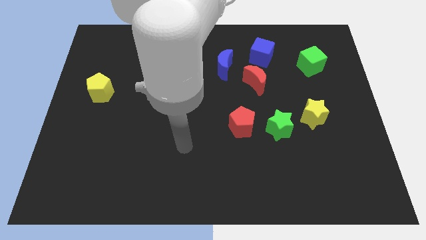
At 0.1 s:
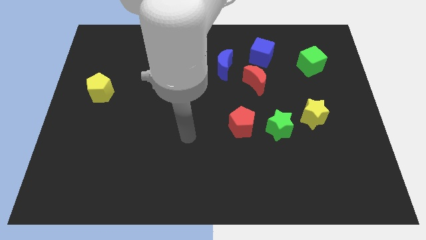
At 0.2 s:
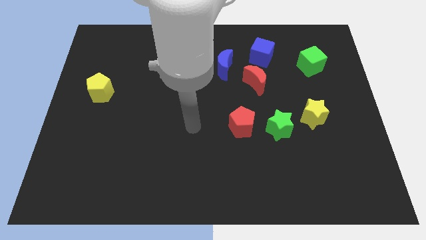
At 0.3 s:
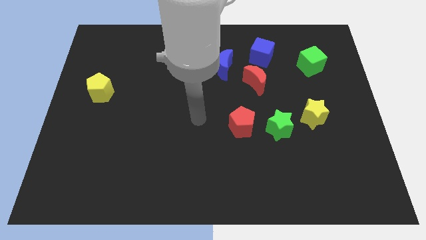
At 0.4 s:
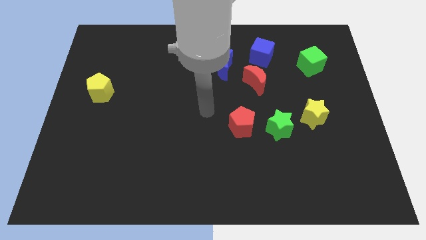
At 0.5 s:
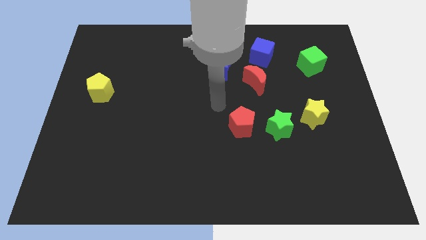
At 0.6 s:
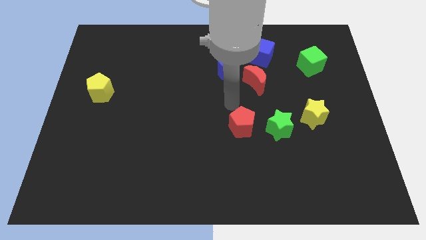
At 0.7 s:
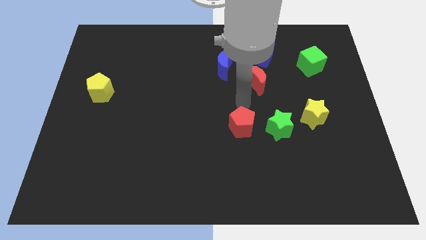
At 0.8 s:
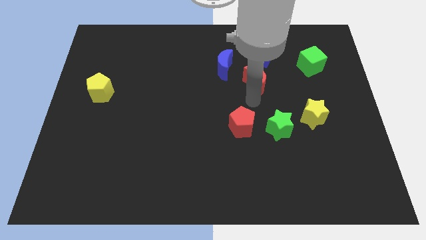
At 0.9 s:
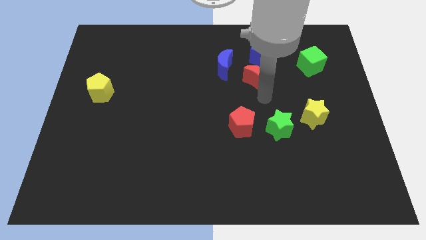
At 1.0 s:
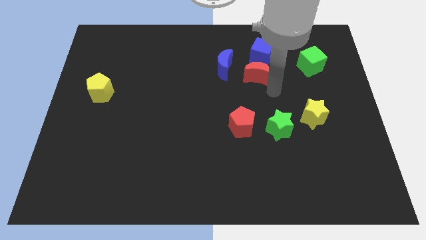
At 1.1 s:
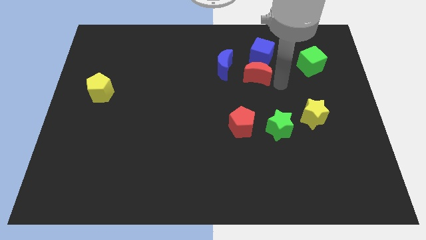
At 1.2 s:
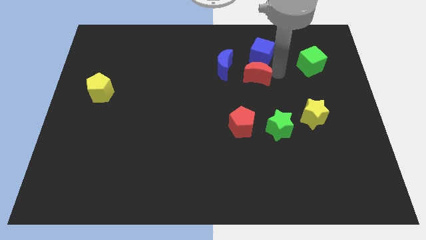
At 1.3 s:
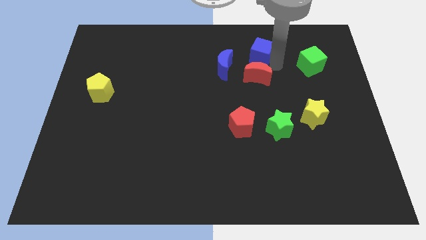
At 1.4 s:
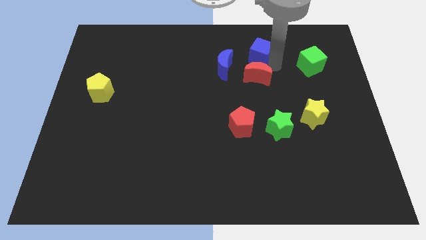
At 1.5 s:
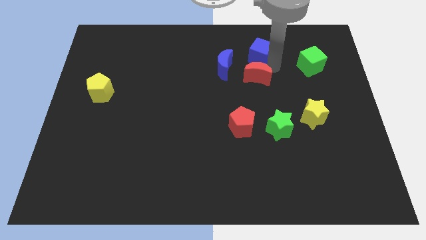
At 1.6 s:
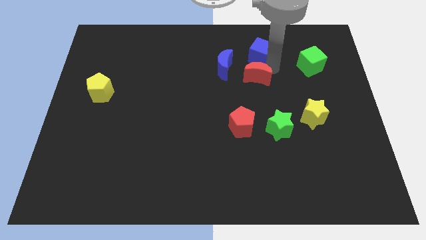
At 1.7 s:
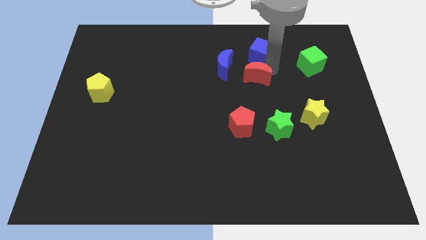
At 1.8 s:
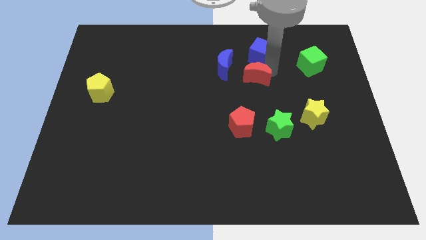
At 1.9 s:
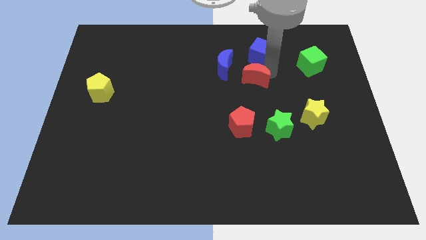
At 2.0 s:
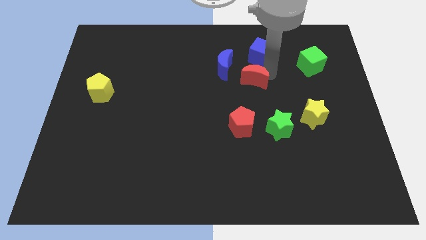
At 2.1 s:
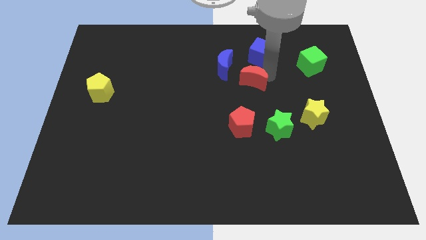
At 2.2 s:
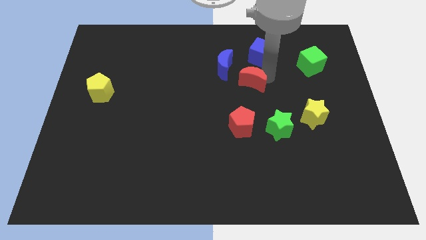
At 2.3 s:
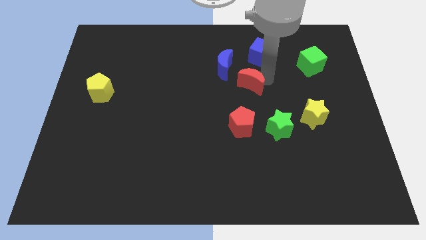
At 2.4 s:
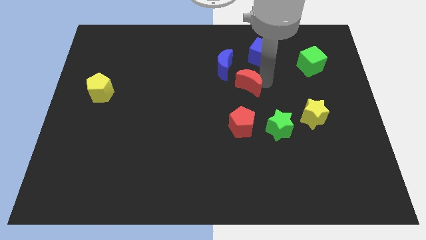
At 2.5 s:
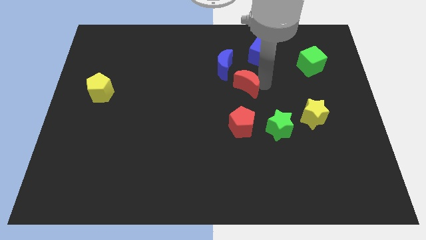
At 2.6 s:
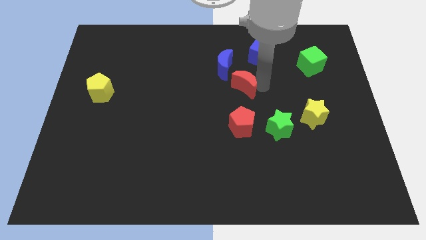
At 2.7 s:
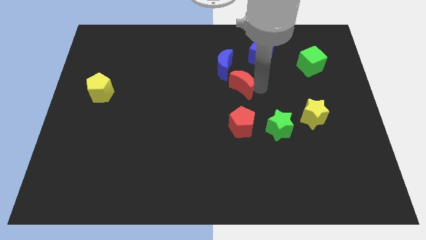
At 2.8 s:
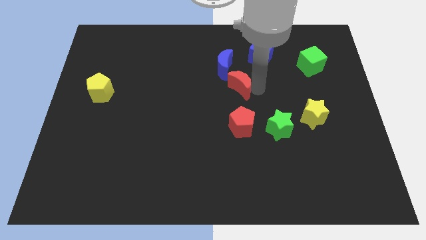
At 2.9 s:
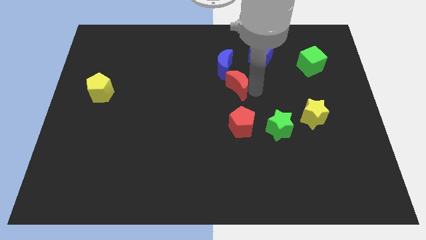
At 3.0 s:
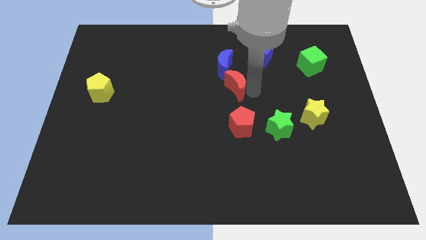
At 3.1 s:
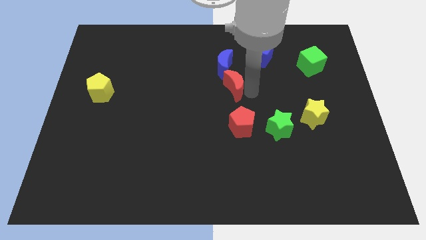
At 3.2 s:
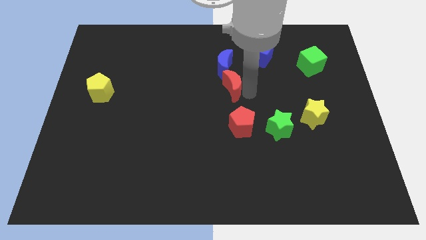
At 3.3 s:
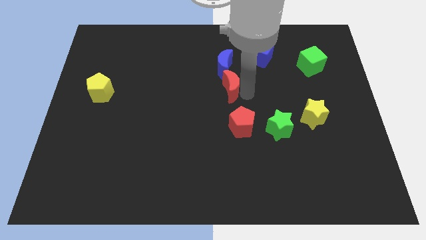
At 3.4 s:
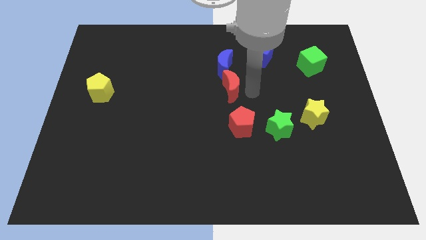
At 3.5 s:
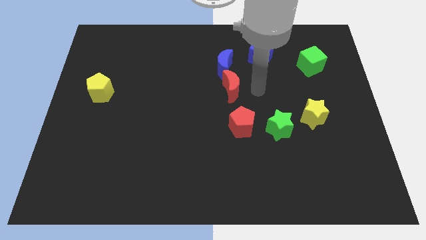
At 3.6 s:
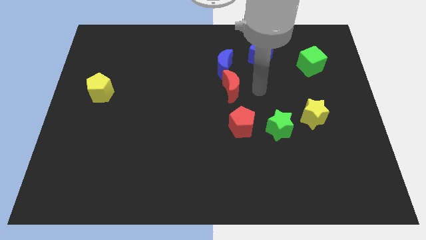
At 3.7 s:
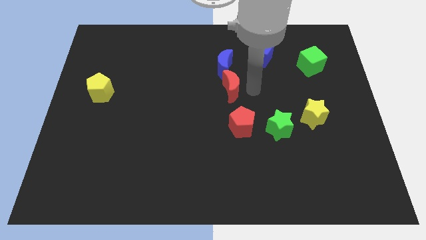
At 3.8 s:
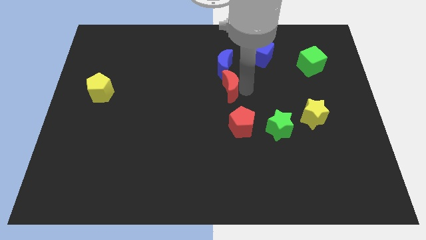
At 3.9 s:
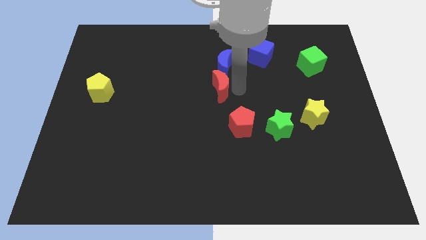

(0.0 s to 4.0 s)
slightly move the red moon left

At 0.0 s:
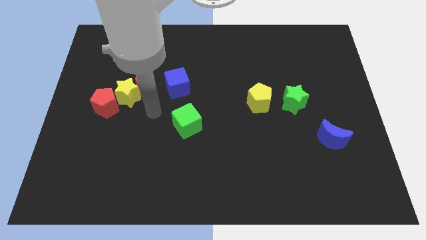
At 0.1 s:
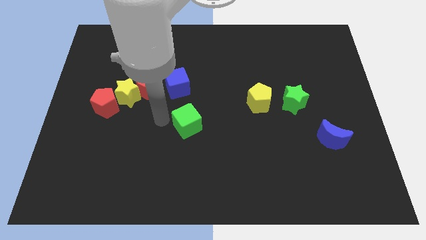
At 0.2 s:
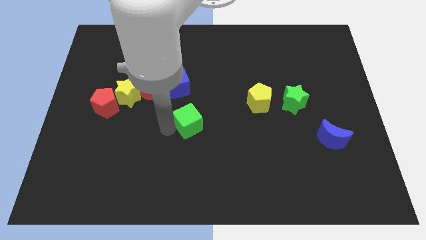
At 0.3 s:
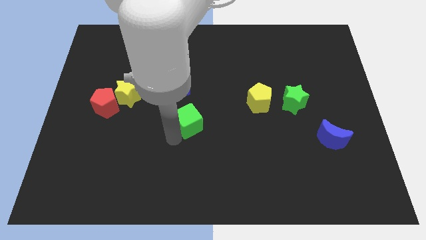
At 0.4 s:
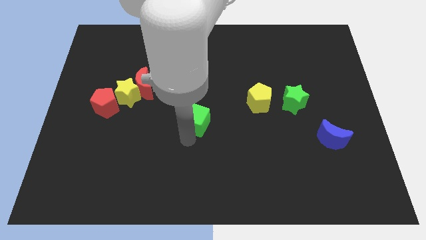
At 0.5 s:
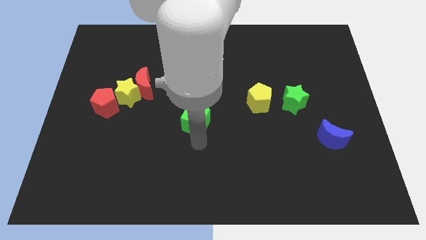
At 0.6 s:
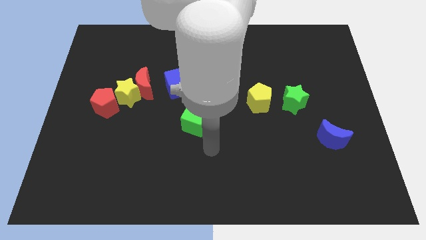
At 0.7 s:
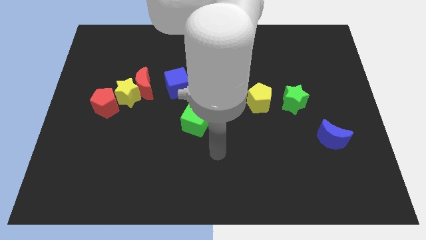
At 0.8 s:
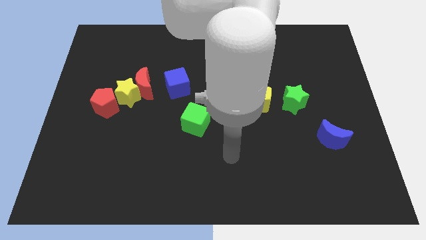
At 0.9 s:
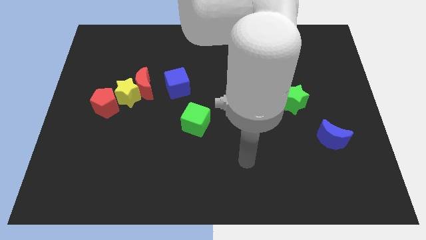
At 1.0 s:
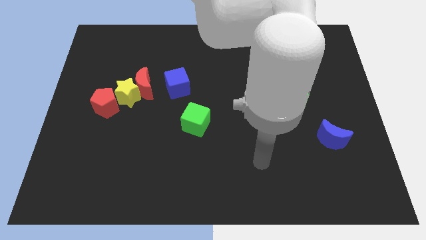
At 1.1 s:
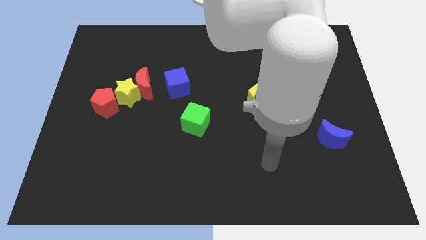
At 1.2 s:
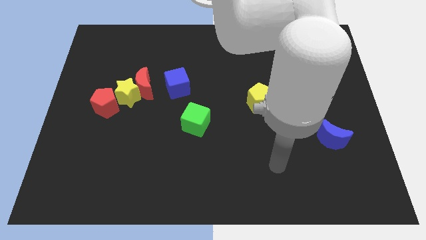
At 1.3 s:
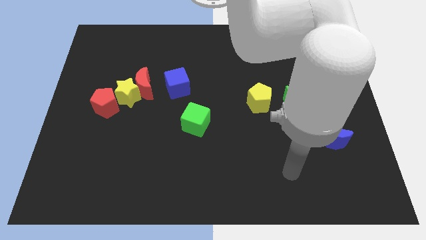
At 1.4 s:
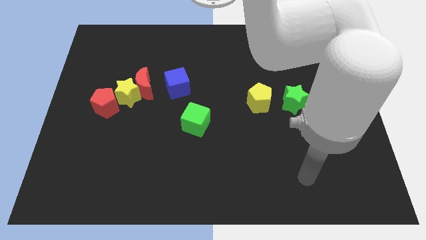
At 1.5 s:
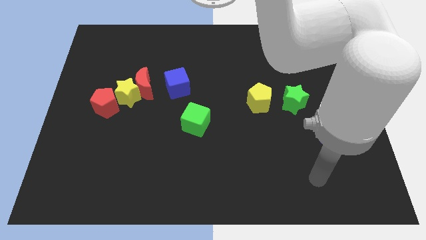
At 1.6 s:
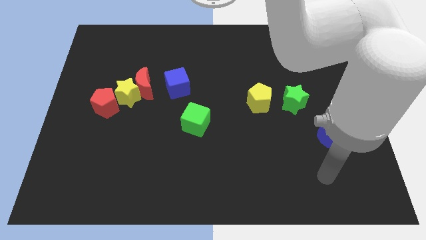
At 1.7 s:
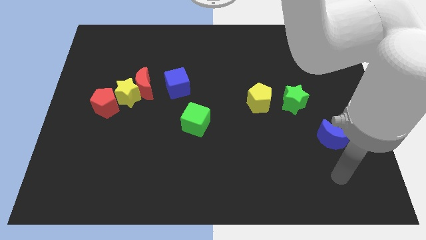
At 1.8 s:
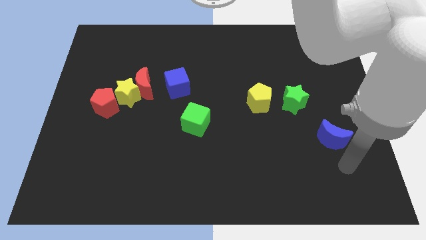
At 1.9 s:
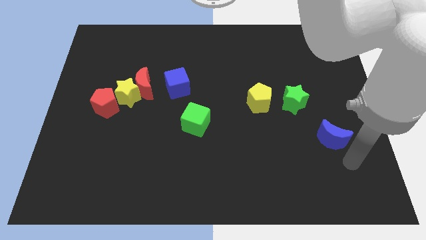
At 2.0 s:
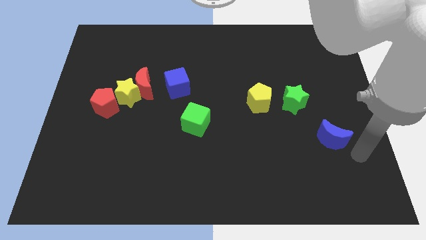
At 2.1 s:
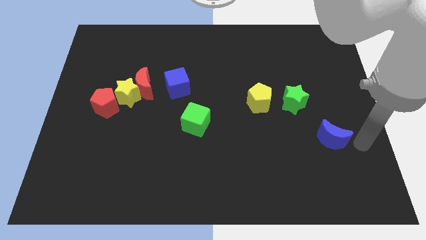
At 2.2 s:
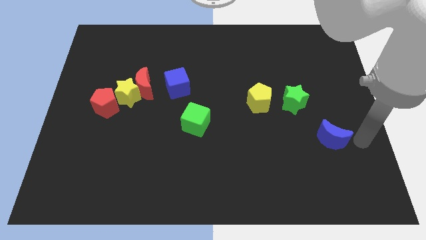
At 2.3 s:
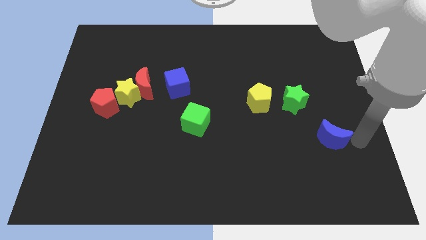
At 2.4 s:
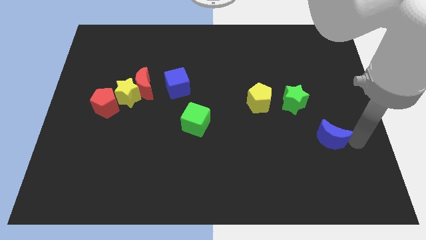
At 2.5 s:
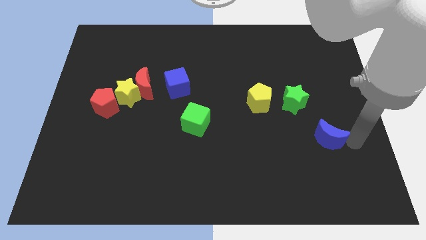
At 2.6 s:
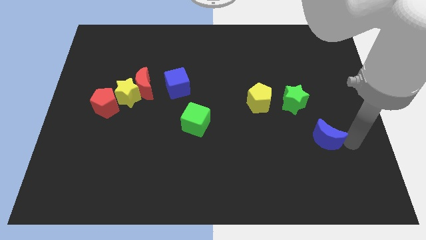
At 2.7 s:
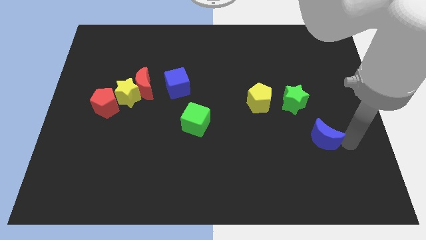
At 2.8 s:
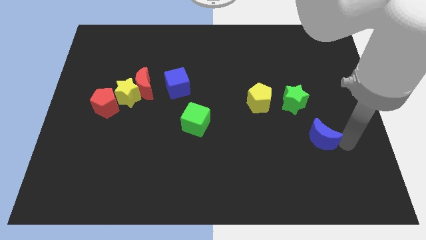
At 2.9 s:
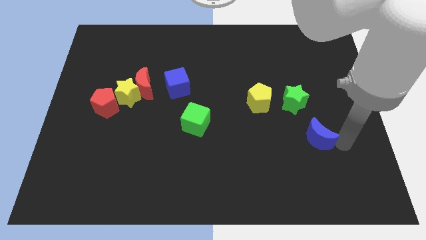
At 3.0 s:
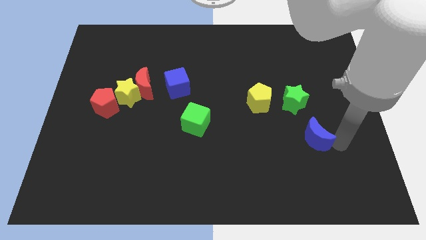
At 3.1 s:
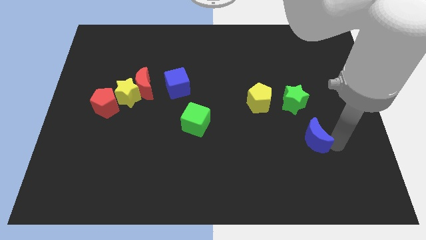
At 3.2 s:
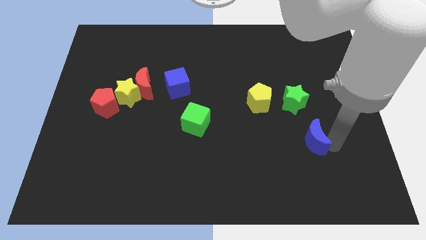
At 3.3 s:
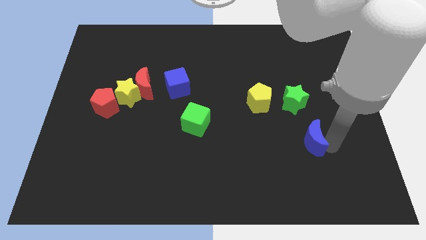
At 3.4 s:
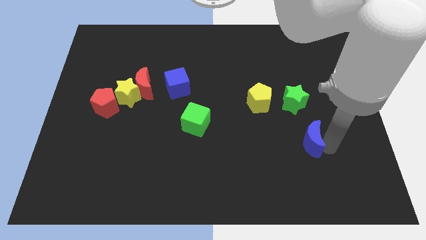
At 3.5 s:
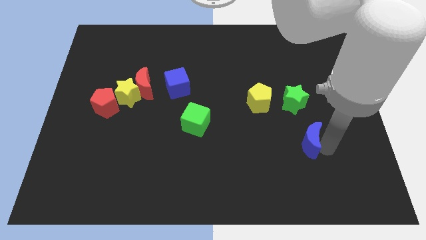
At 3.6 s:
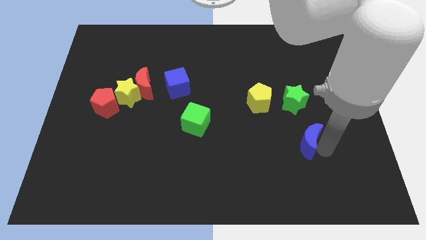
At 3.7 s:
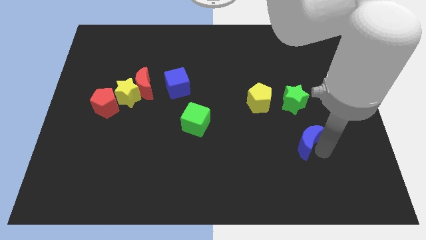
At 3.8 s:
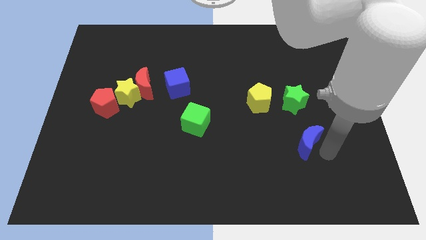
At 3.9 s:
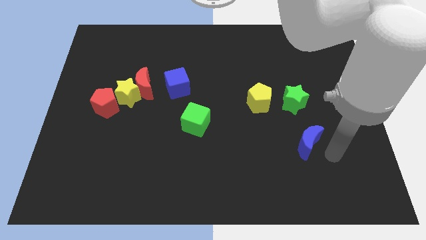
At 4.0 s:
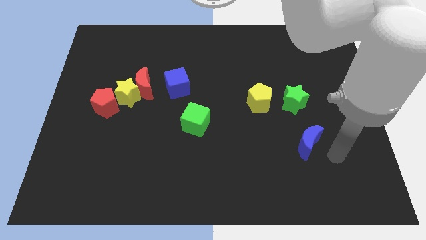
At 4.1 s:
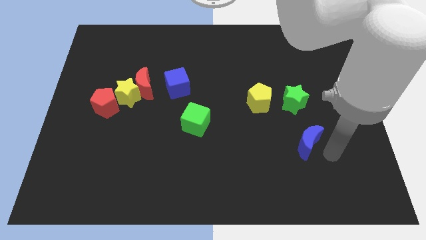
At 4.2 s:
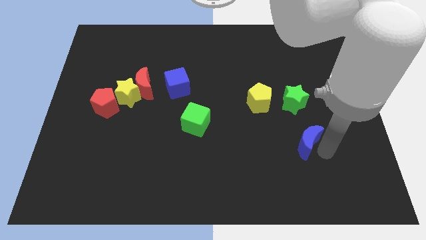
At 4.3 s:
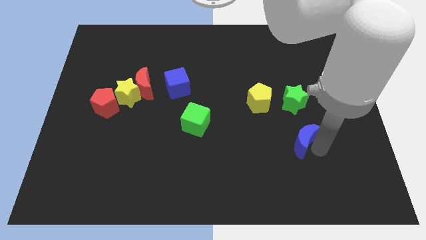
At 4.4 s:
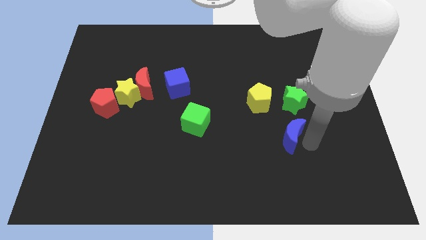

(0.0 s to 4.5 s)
slightly push the blue moon left
